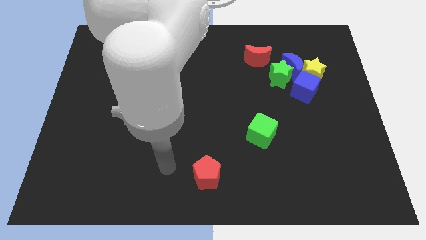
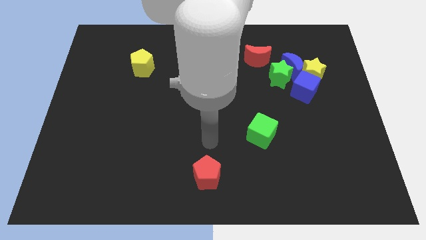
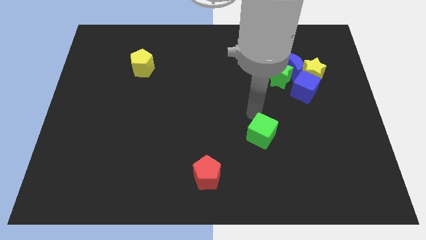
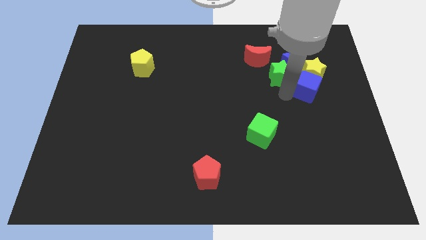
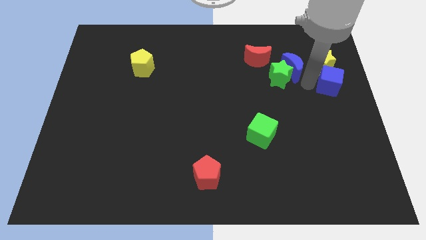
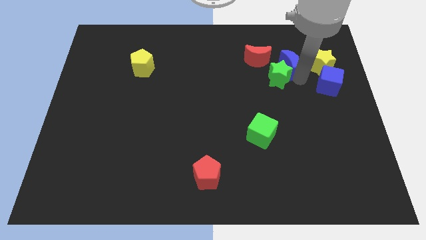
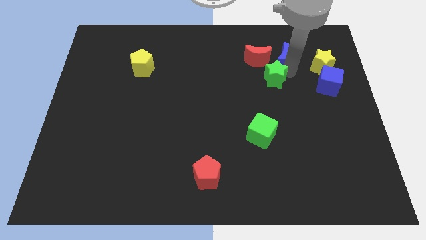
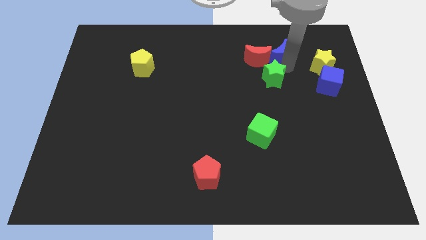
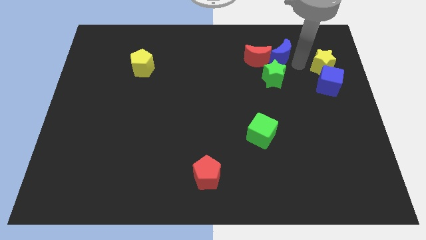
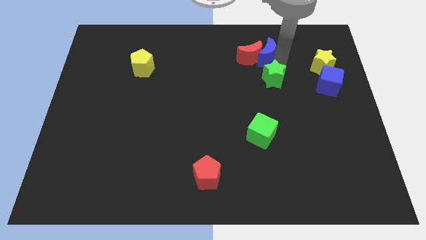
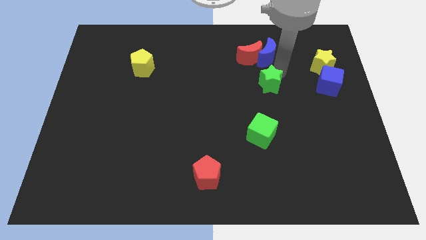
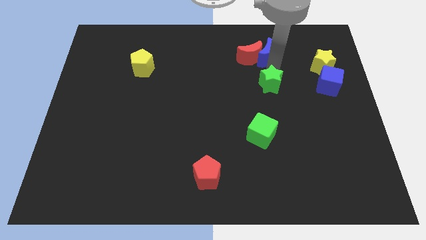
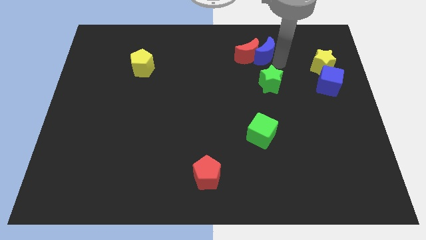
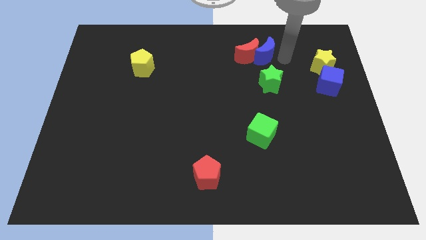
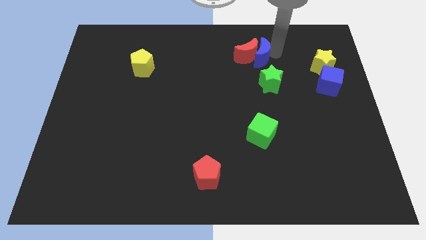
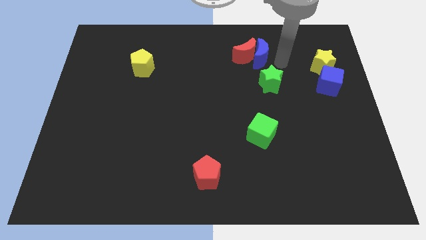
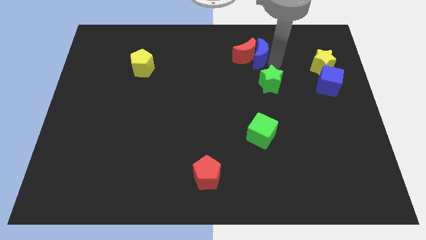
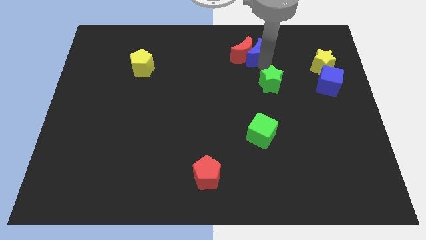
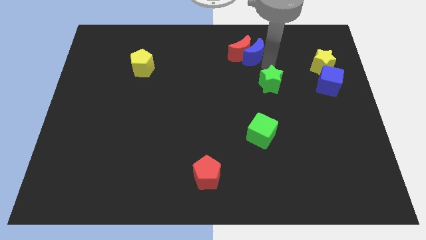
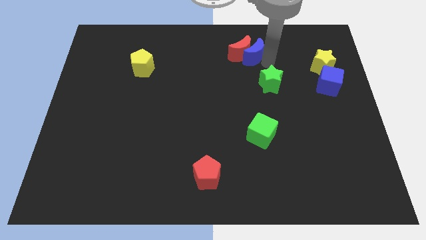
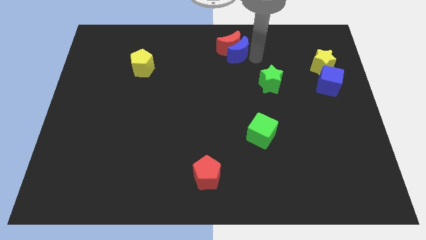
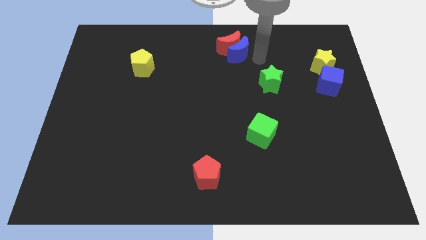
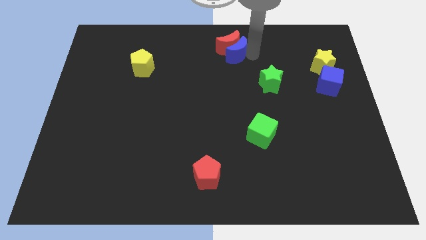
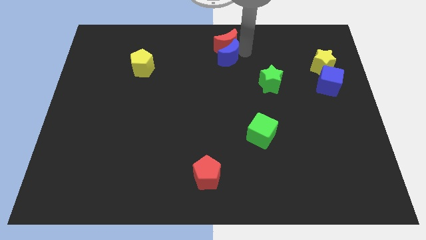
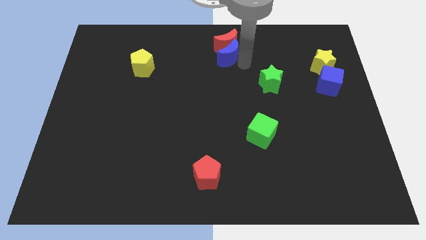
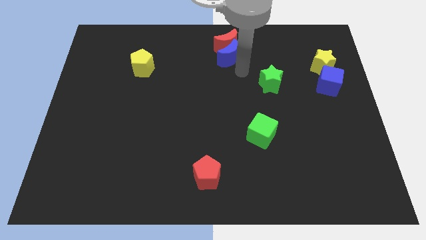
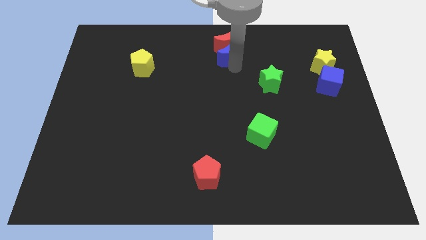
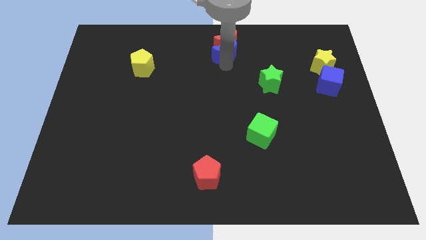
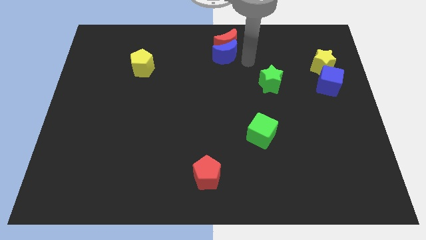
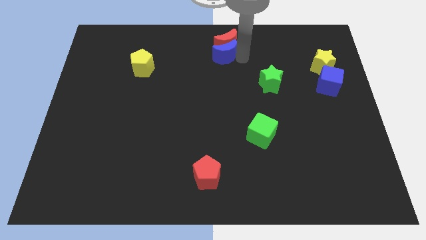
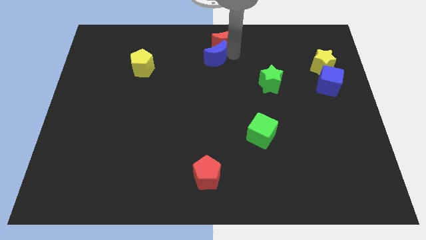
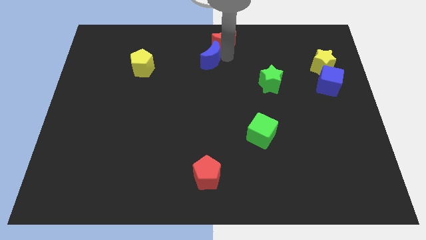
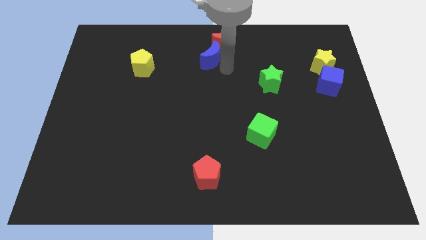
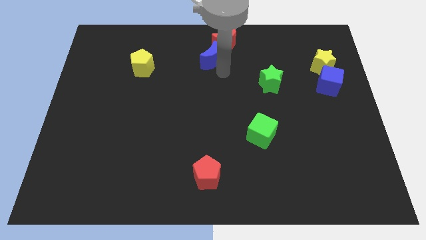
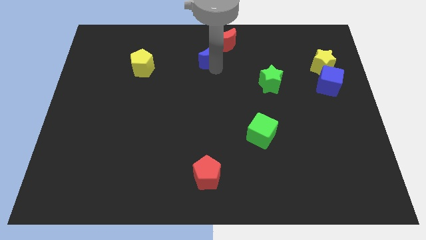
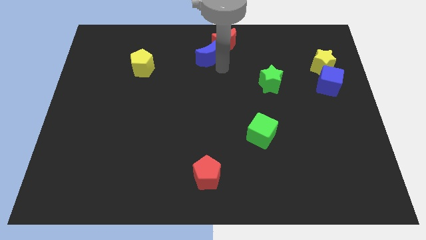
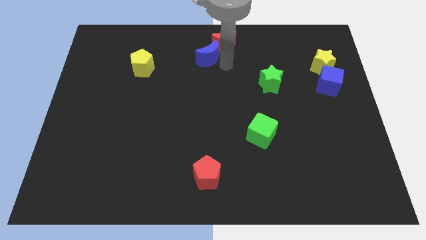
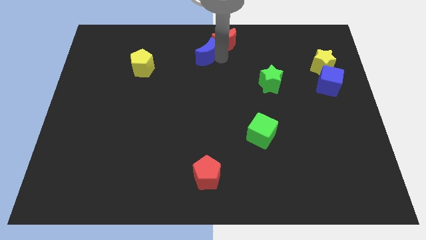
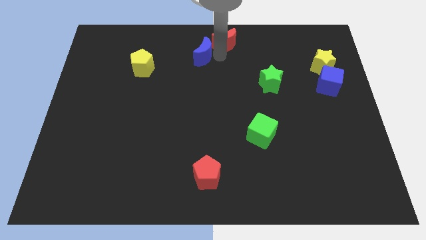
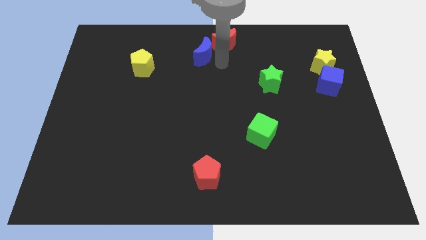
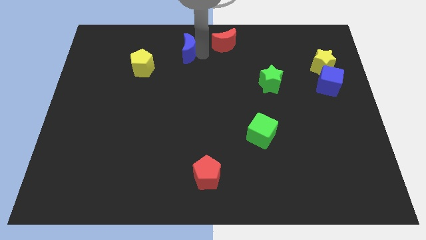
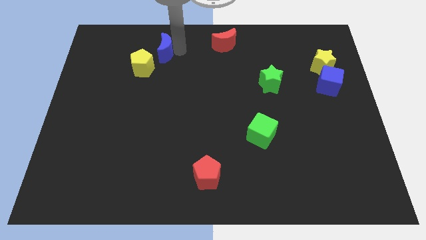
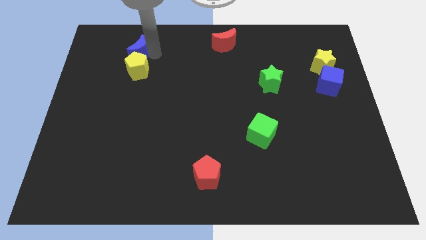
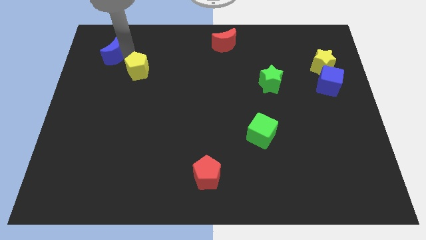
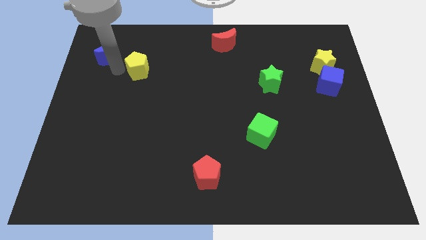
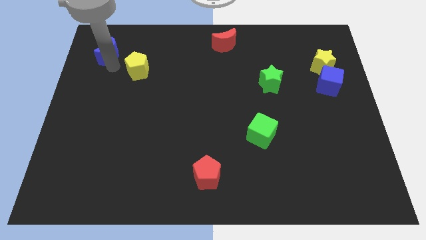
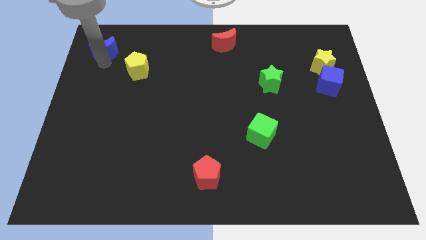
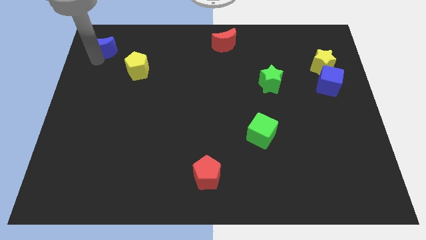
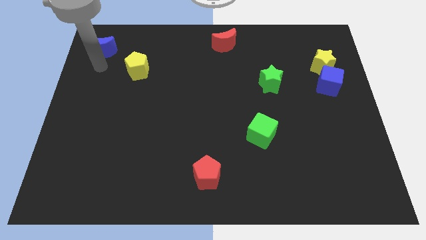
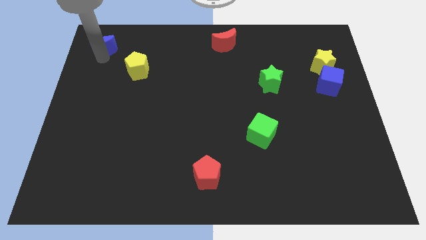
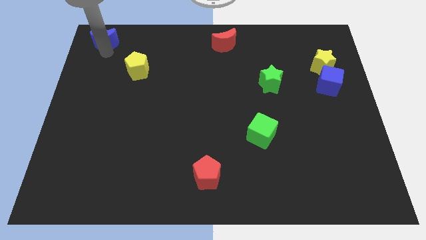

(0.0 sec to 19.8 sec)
slide the blue moon to the top left of the board

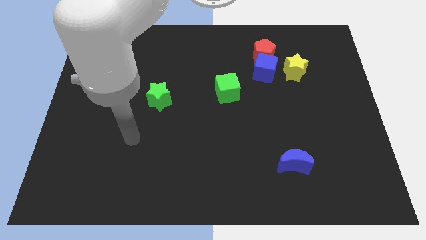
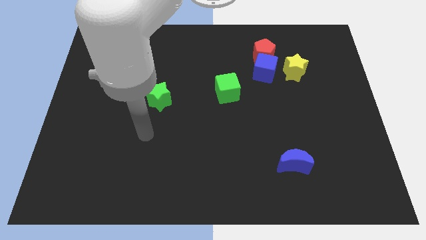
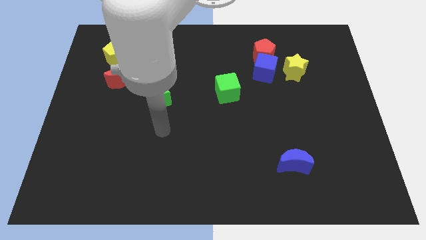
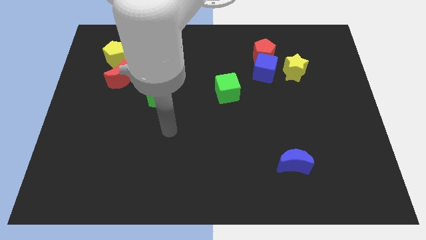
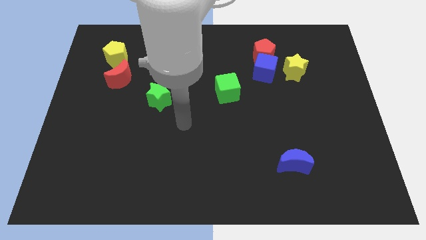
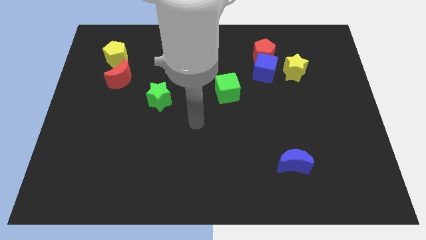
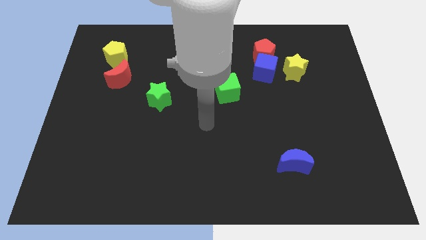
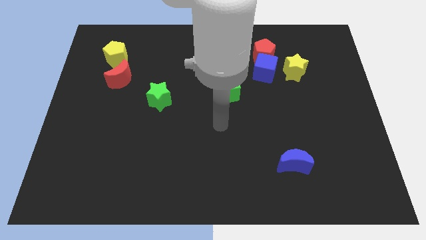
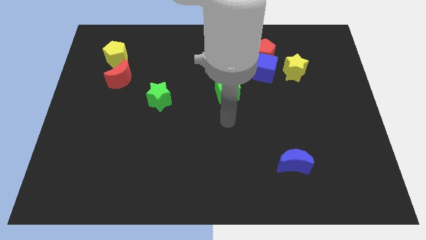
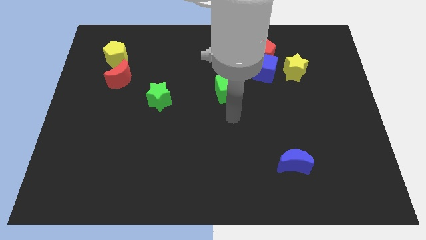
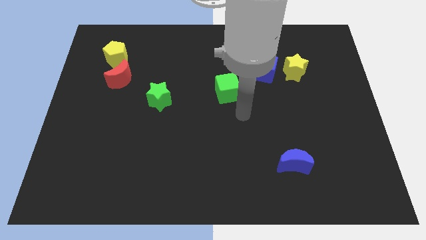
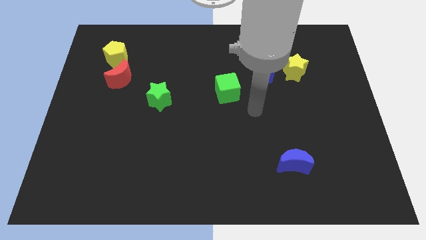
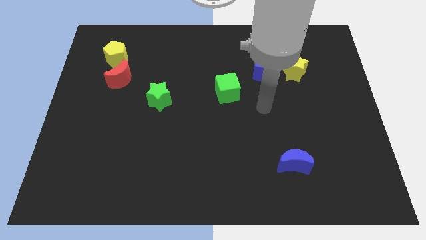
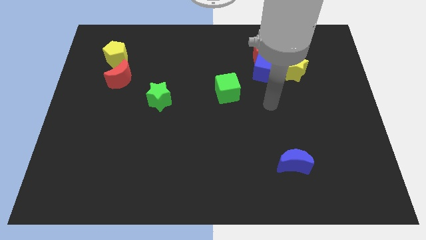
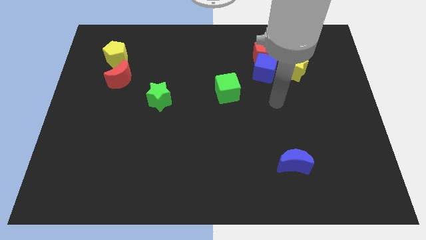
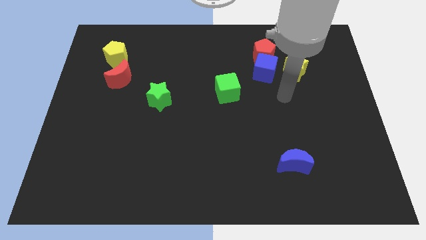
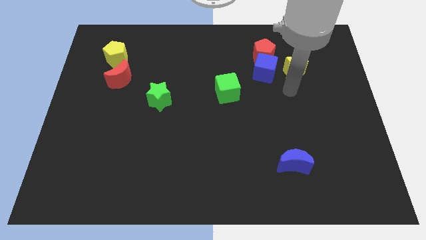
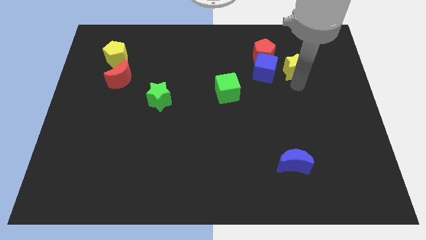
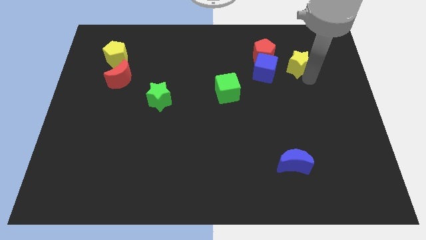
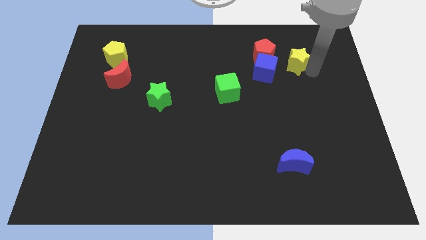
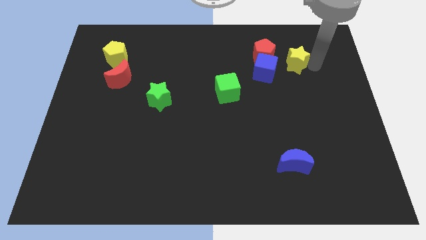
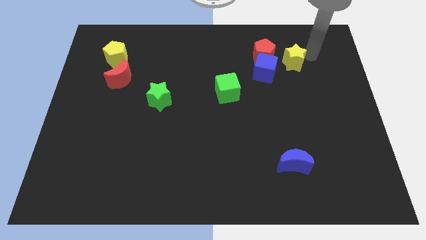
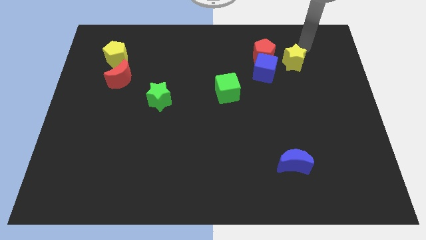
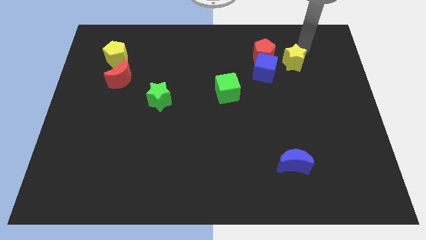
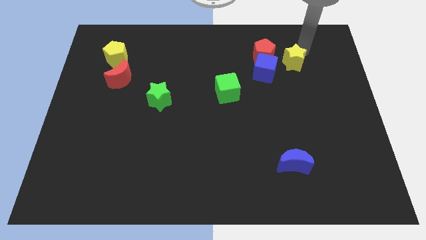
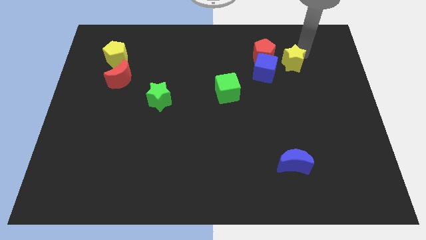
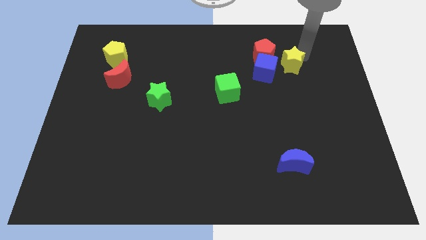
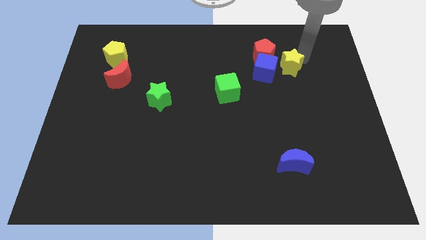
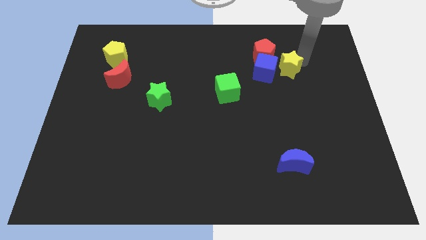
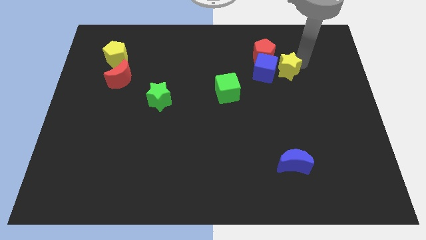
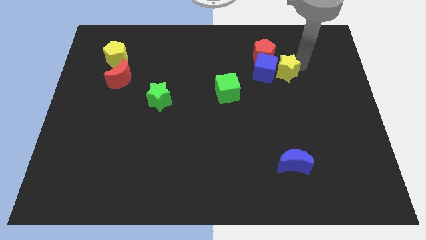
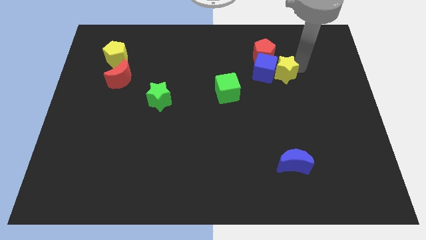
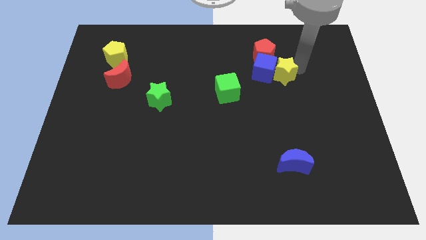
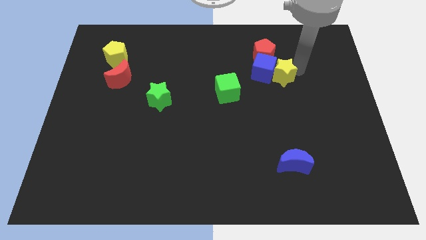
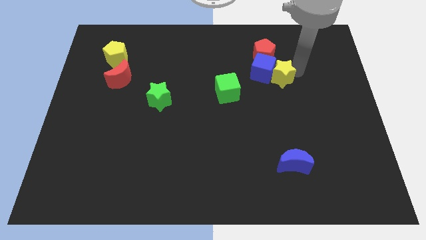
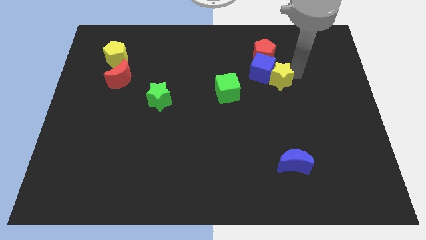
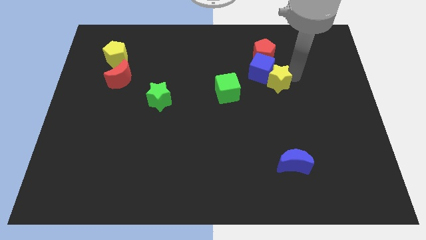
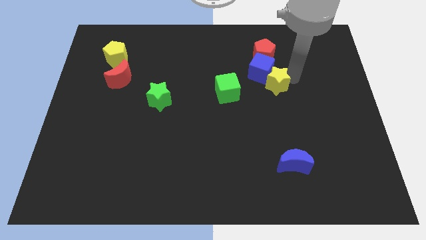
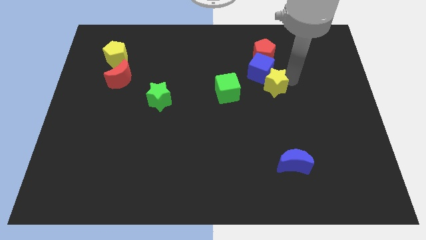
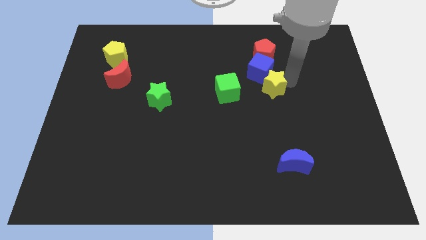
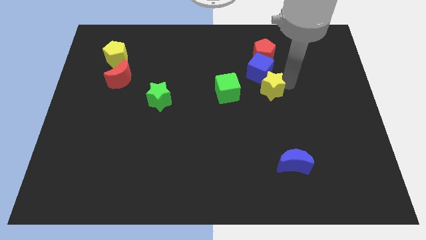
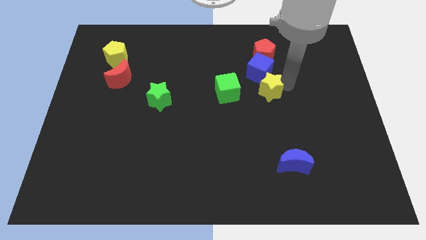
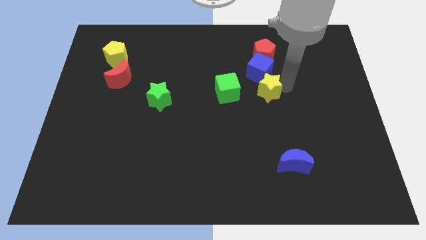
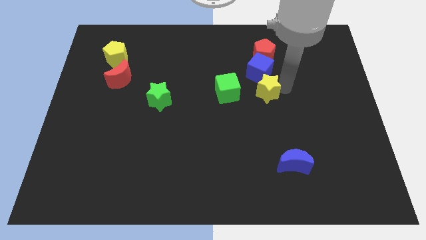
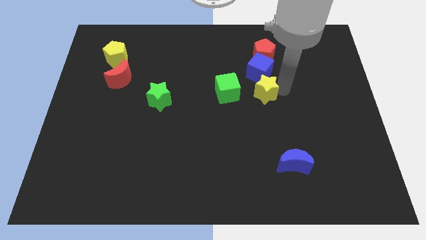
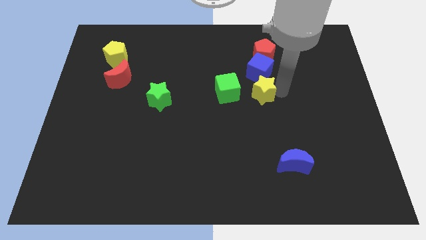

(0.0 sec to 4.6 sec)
slide the yellow star to the center
